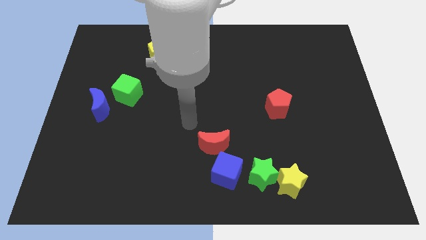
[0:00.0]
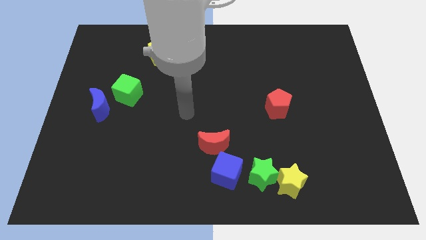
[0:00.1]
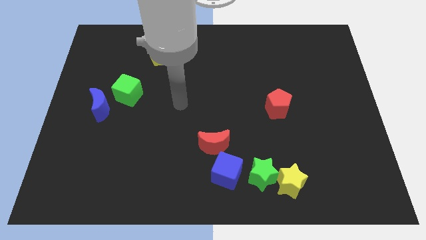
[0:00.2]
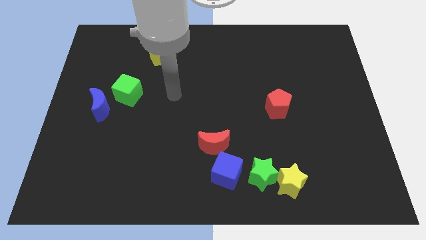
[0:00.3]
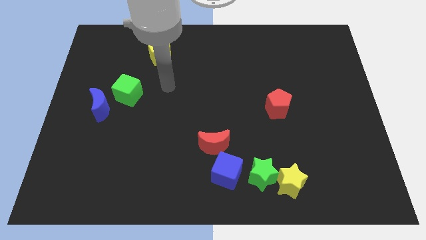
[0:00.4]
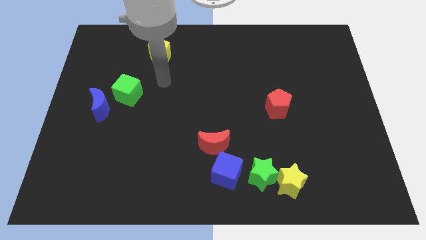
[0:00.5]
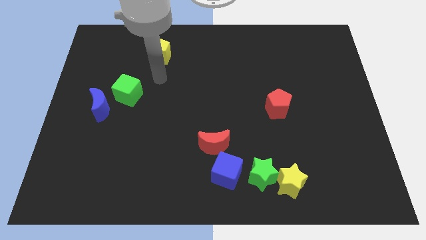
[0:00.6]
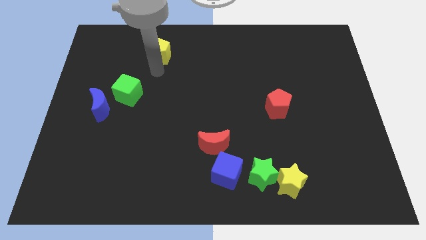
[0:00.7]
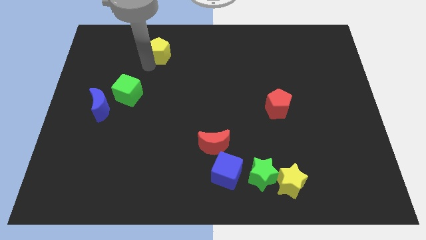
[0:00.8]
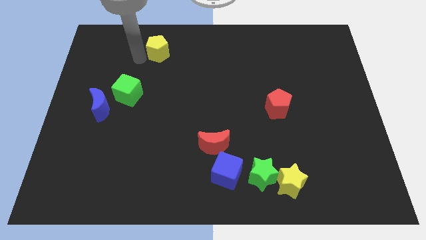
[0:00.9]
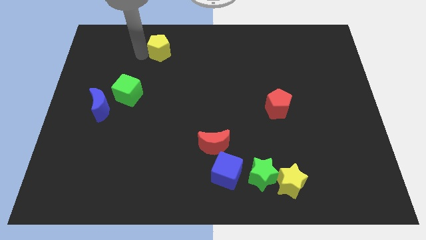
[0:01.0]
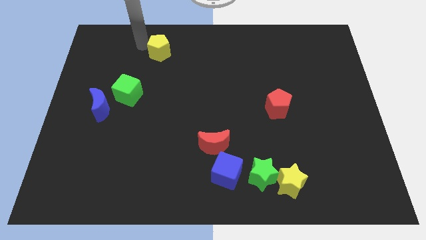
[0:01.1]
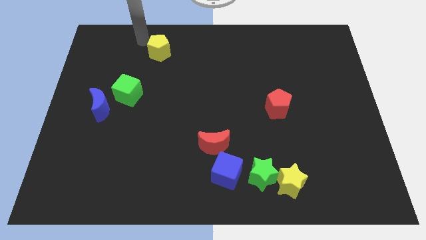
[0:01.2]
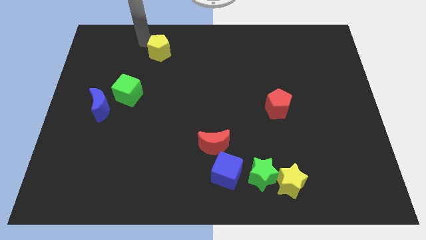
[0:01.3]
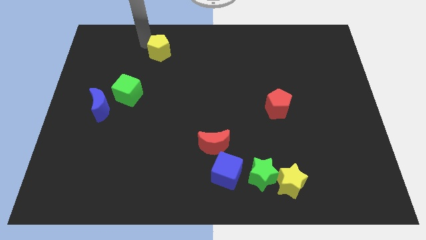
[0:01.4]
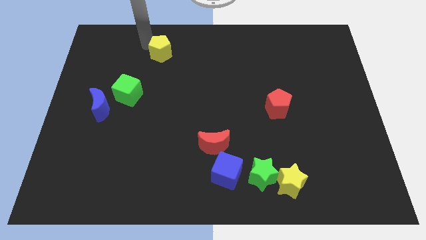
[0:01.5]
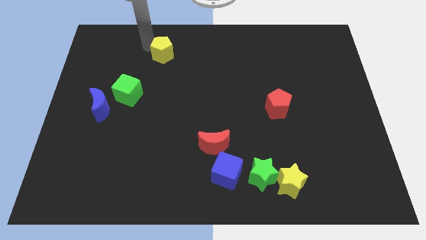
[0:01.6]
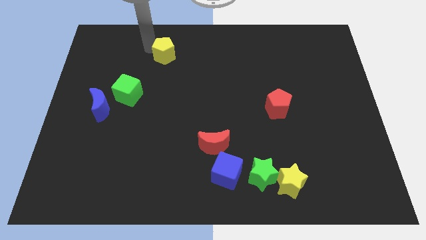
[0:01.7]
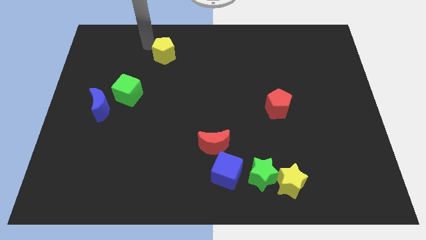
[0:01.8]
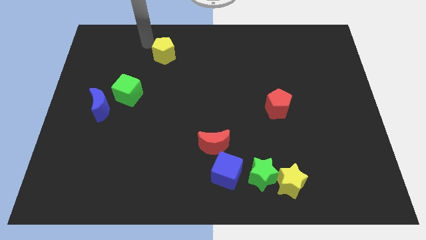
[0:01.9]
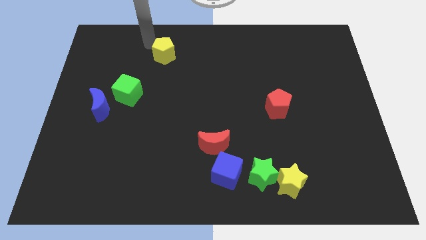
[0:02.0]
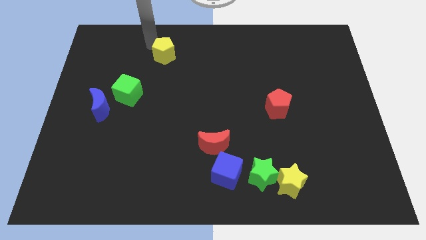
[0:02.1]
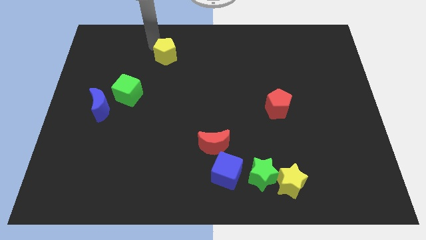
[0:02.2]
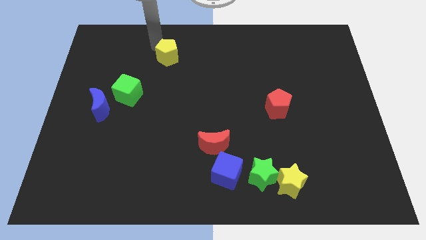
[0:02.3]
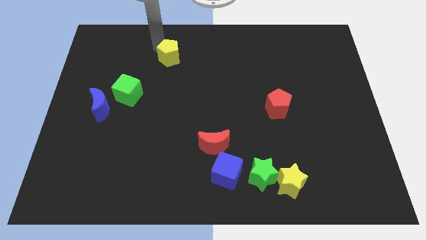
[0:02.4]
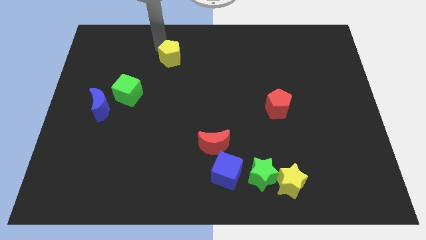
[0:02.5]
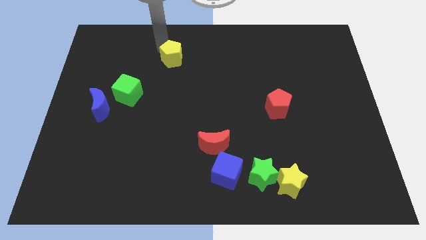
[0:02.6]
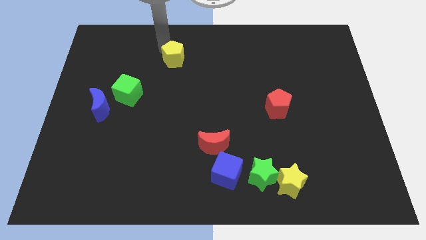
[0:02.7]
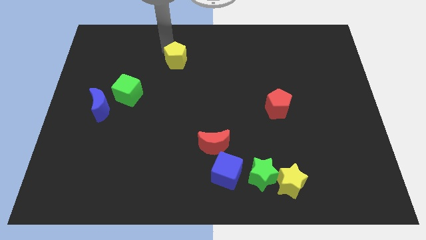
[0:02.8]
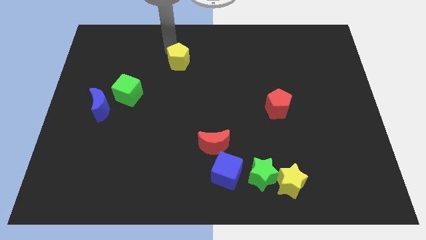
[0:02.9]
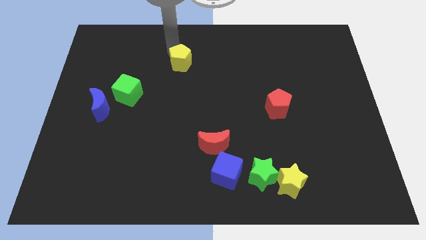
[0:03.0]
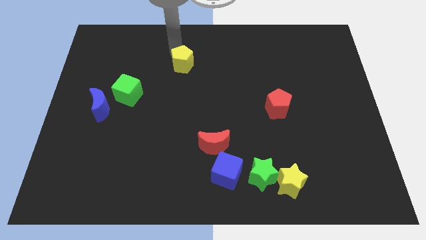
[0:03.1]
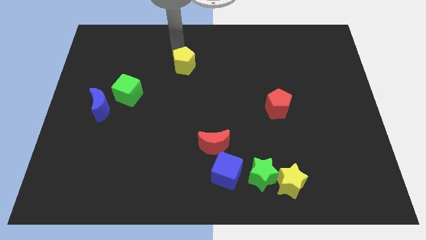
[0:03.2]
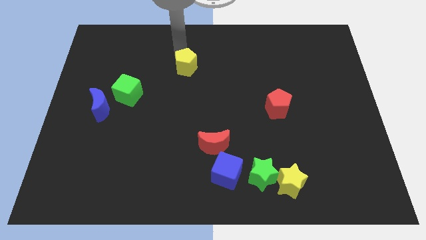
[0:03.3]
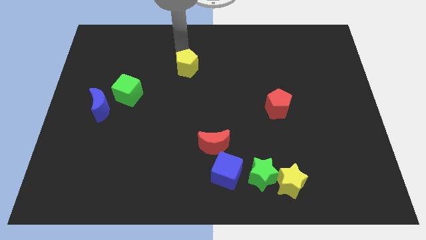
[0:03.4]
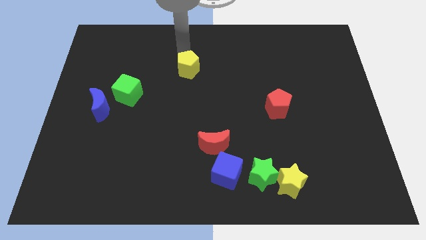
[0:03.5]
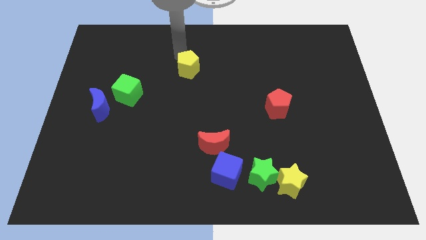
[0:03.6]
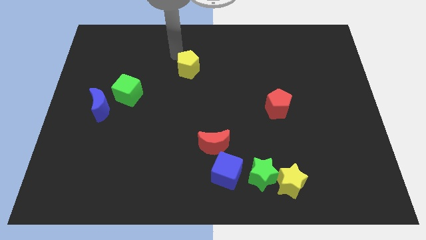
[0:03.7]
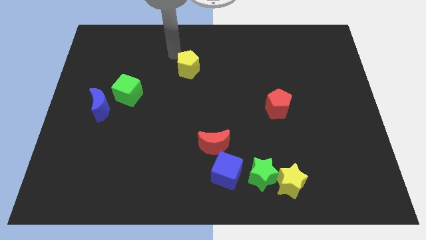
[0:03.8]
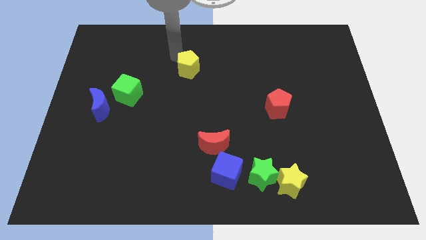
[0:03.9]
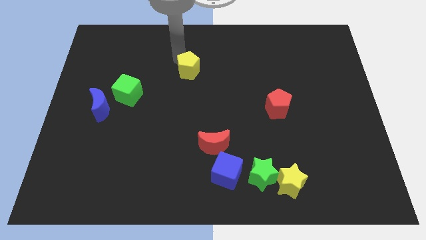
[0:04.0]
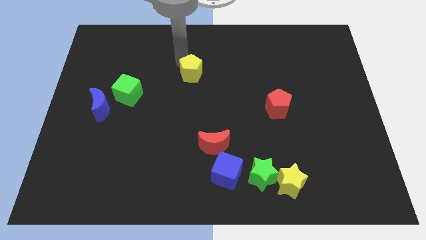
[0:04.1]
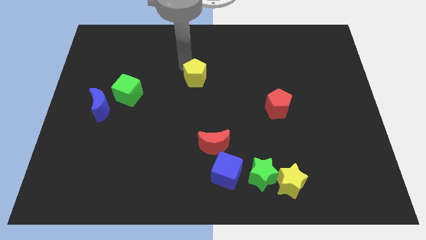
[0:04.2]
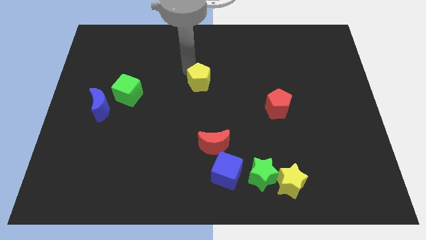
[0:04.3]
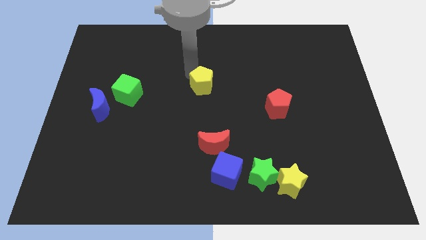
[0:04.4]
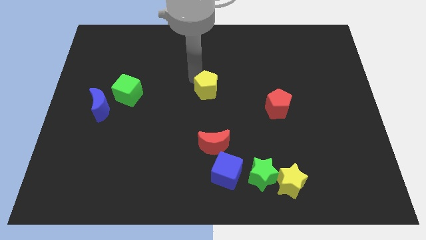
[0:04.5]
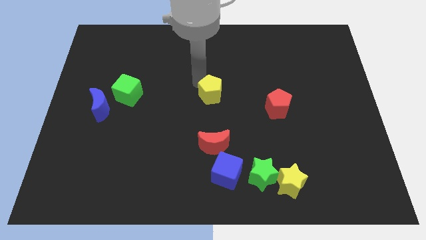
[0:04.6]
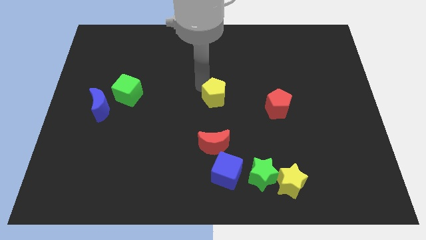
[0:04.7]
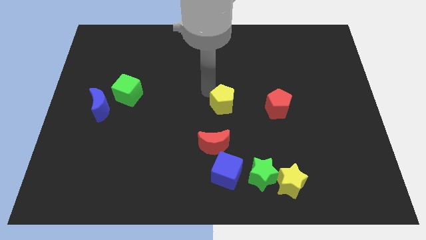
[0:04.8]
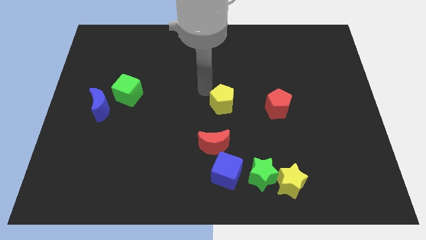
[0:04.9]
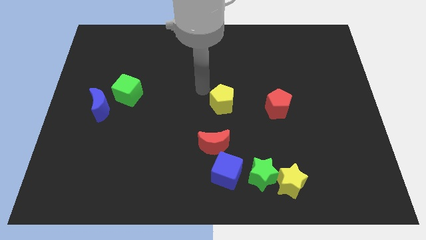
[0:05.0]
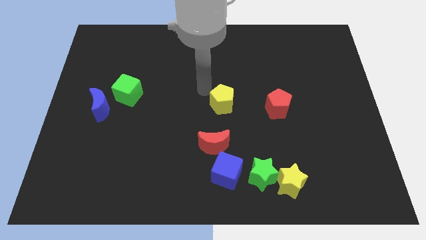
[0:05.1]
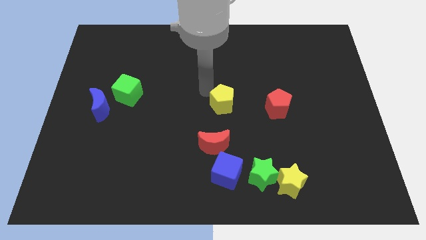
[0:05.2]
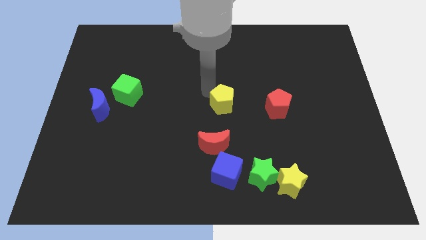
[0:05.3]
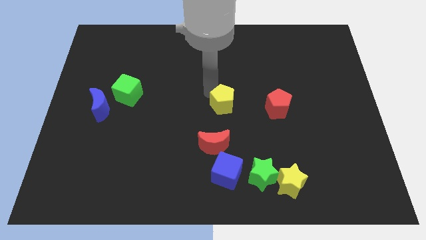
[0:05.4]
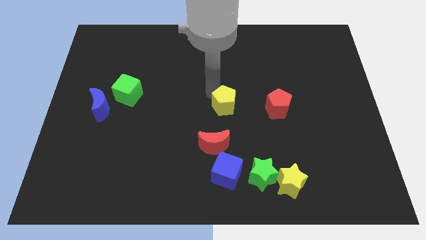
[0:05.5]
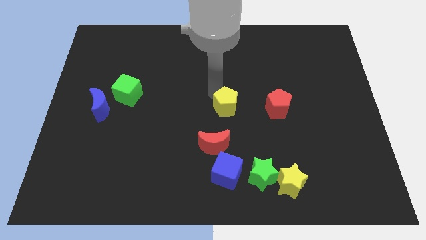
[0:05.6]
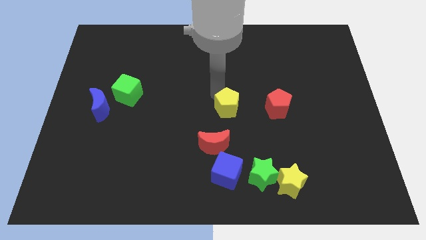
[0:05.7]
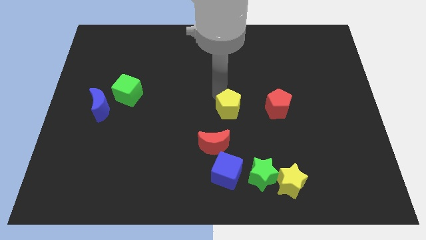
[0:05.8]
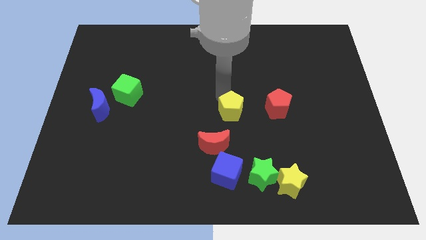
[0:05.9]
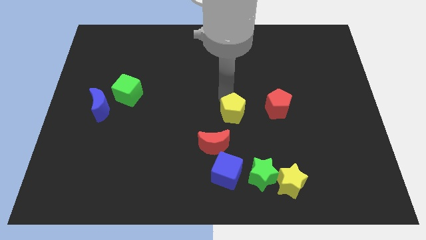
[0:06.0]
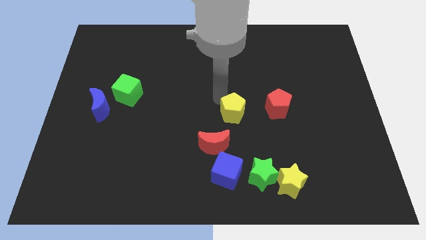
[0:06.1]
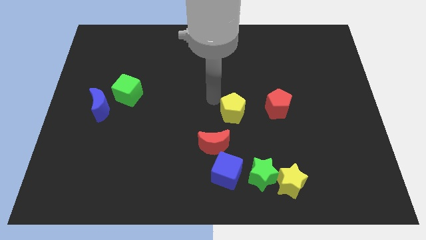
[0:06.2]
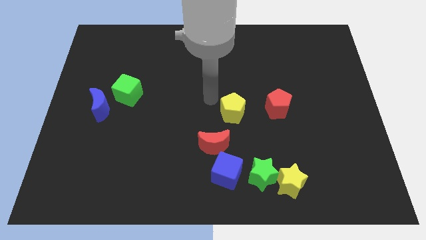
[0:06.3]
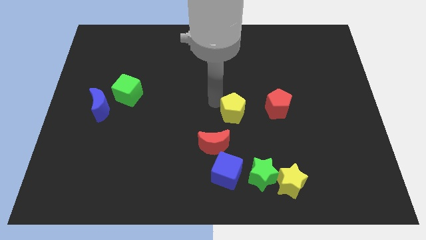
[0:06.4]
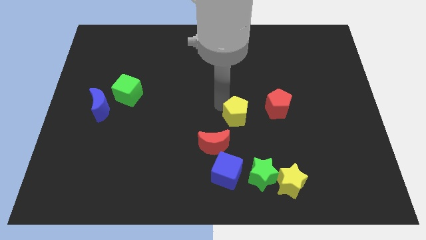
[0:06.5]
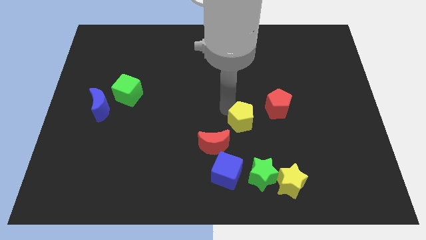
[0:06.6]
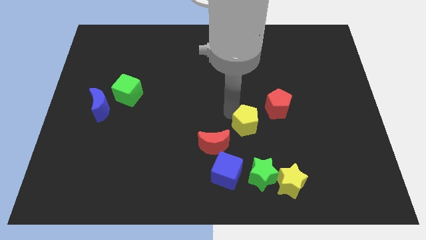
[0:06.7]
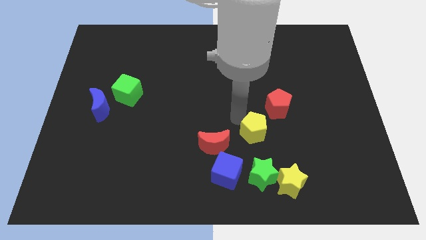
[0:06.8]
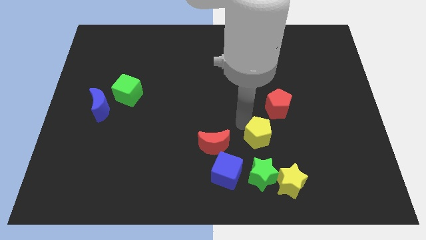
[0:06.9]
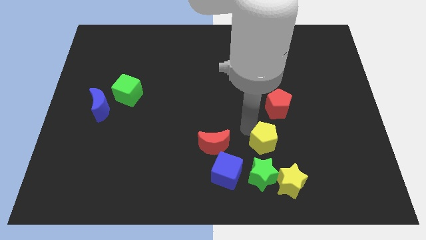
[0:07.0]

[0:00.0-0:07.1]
move the yellow pentagon to the top of the yellow star

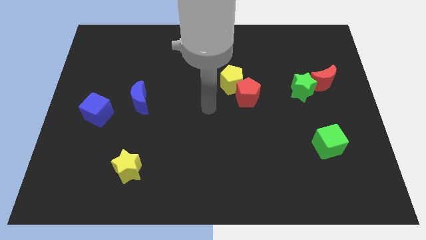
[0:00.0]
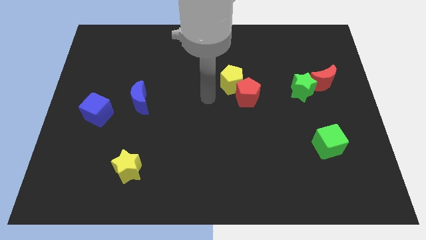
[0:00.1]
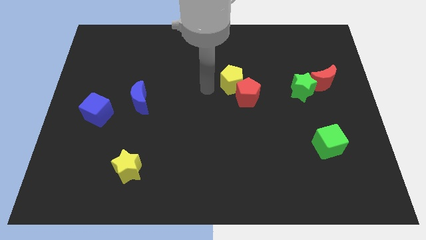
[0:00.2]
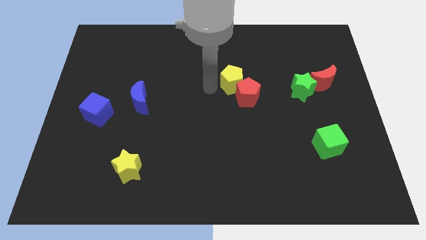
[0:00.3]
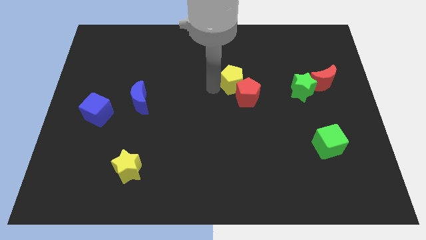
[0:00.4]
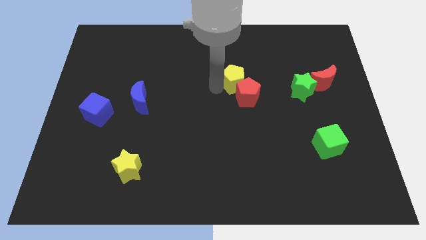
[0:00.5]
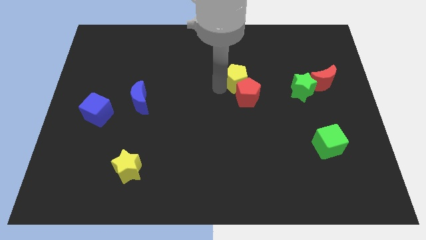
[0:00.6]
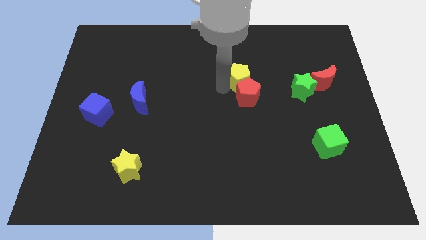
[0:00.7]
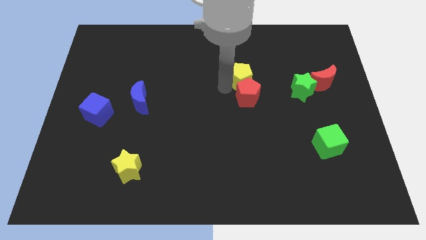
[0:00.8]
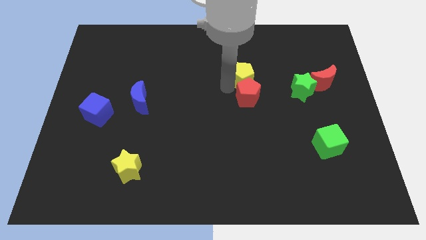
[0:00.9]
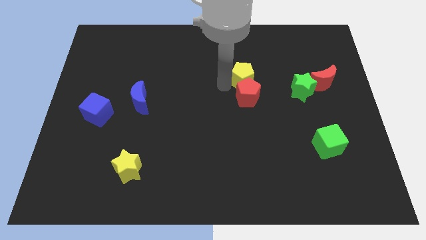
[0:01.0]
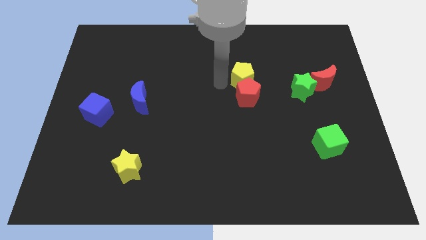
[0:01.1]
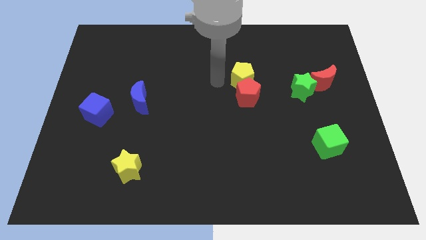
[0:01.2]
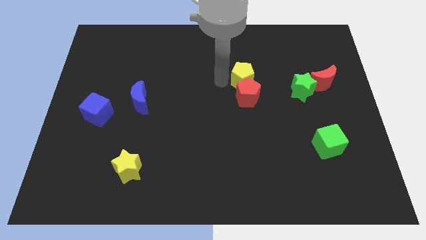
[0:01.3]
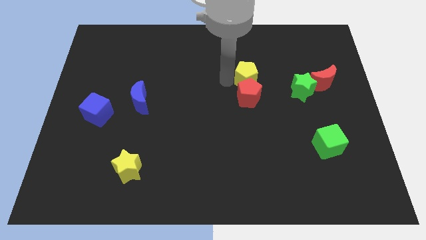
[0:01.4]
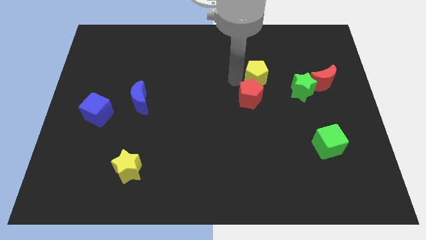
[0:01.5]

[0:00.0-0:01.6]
move the yellow pentagon diagonally up and to the left of the green star
